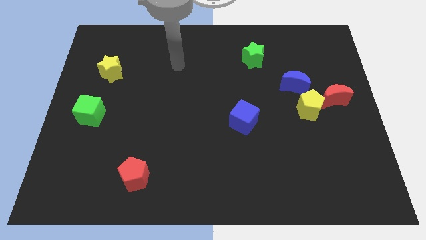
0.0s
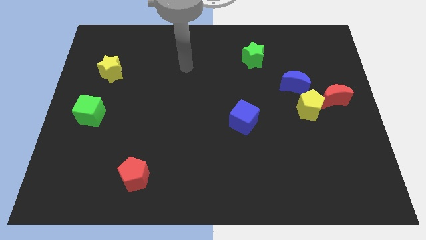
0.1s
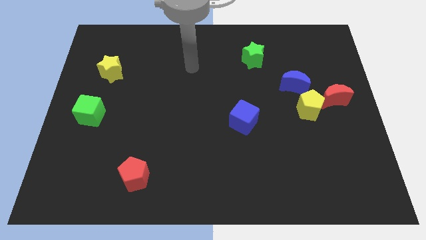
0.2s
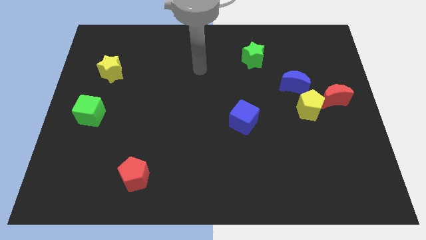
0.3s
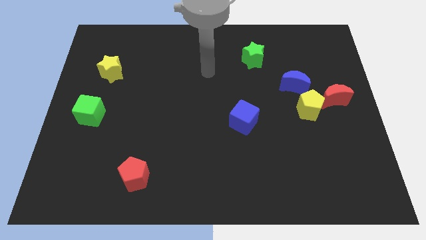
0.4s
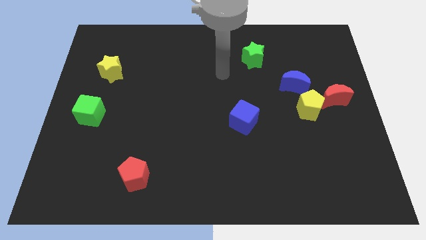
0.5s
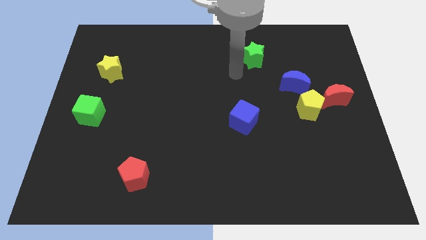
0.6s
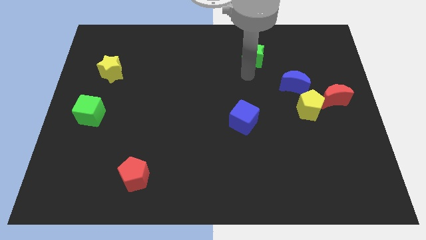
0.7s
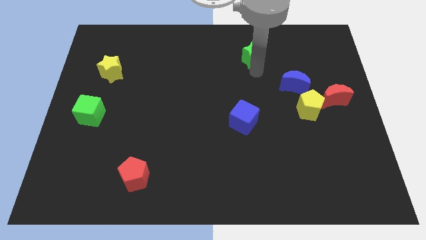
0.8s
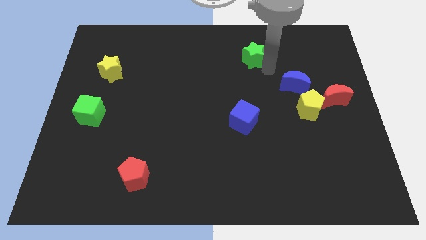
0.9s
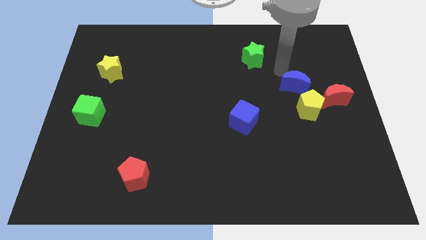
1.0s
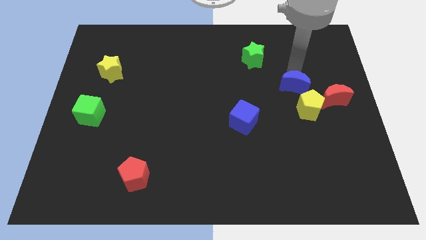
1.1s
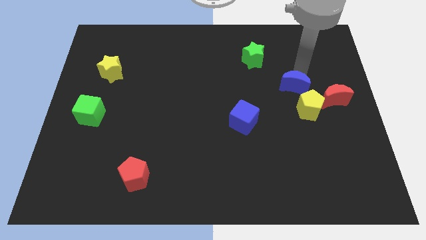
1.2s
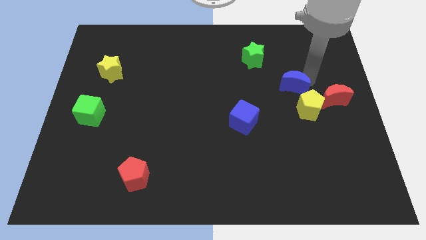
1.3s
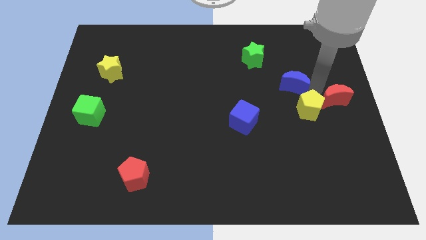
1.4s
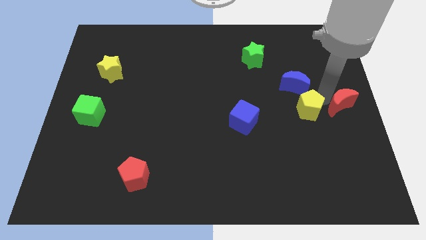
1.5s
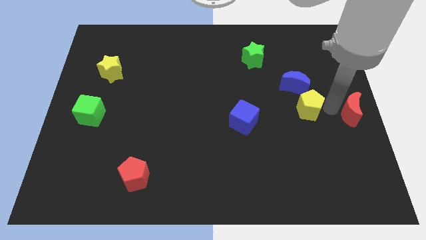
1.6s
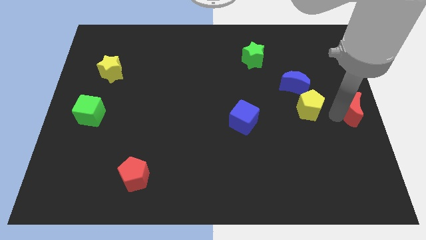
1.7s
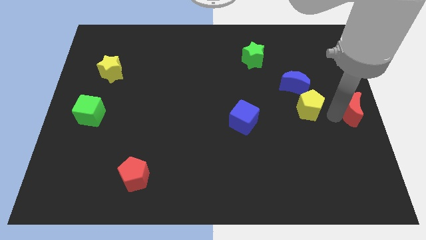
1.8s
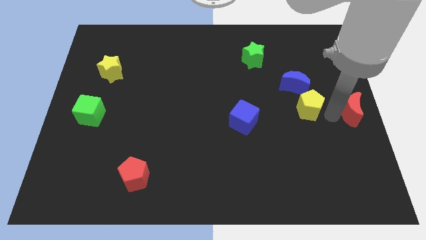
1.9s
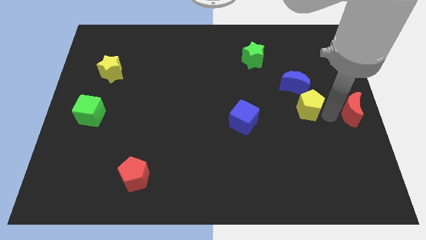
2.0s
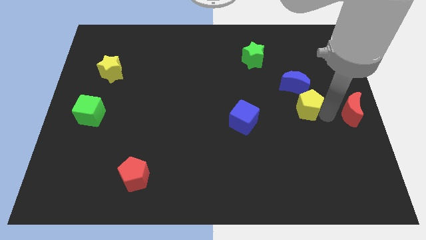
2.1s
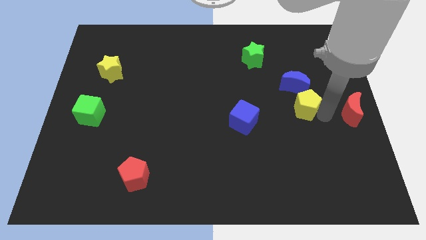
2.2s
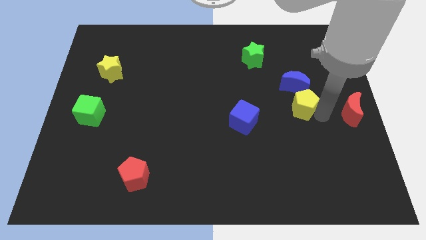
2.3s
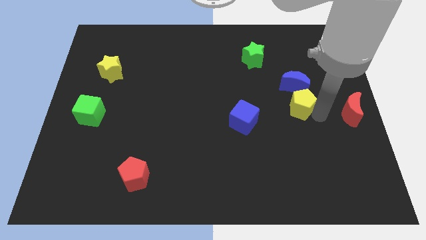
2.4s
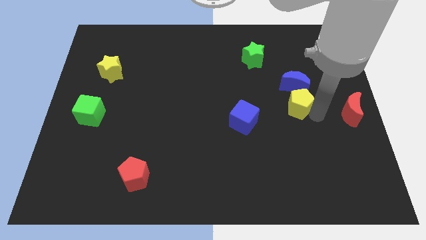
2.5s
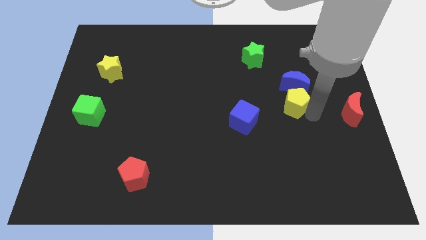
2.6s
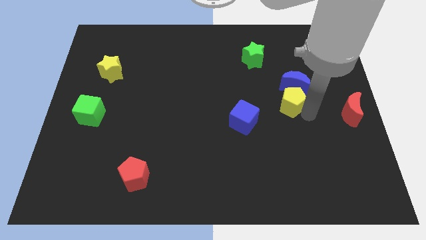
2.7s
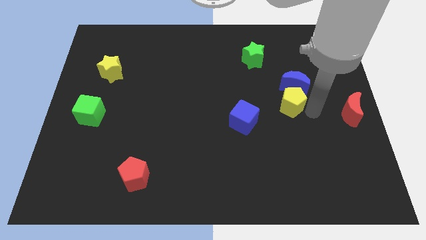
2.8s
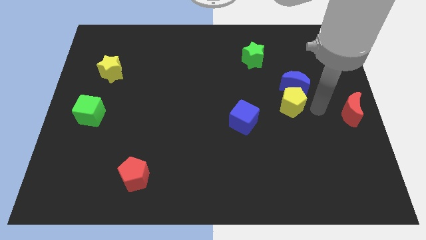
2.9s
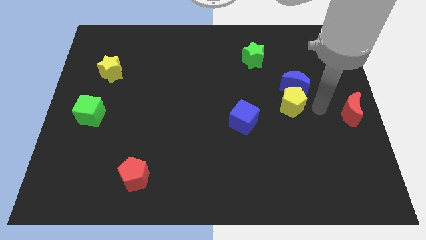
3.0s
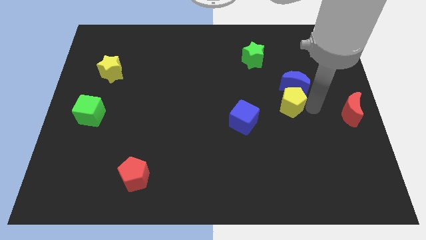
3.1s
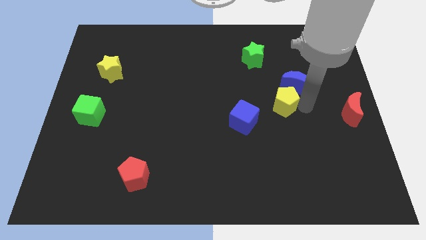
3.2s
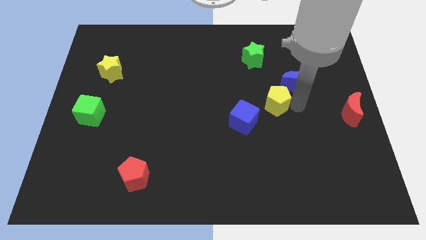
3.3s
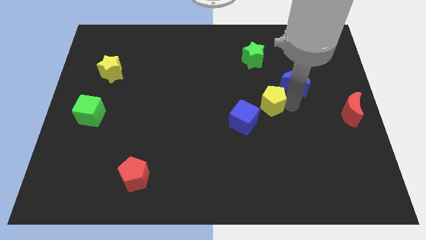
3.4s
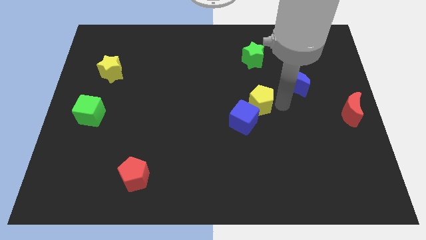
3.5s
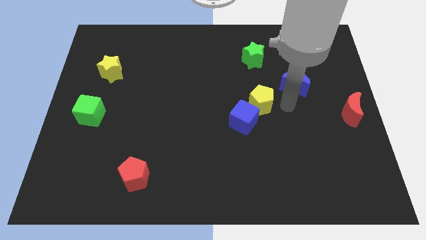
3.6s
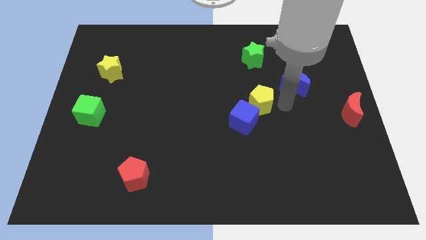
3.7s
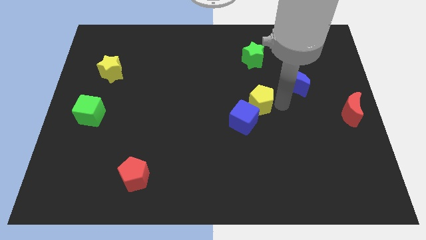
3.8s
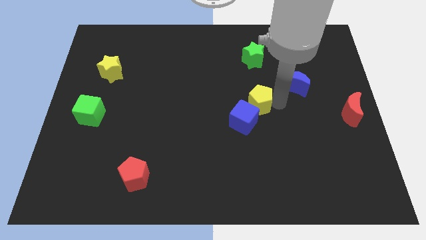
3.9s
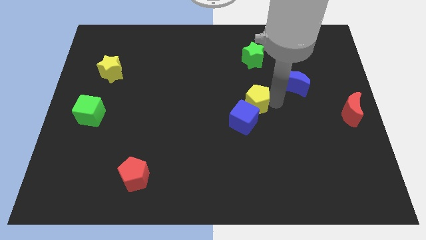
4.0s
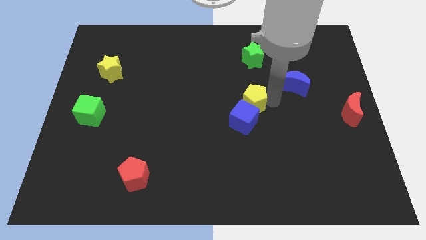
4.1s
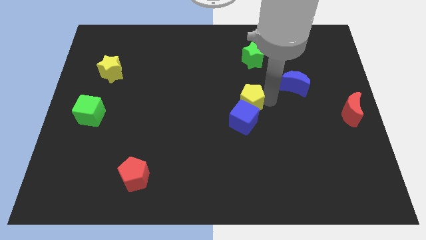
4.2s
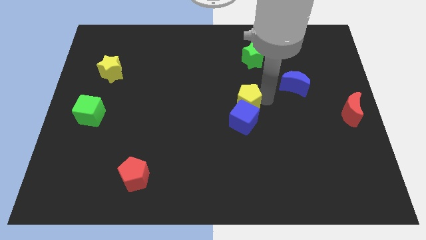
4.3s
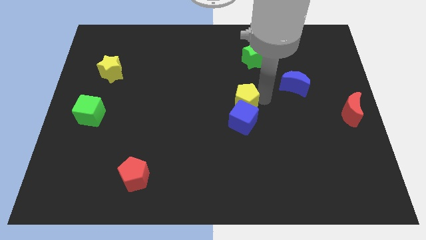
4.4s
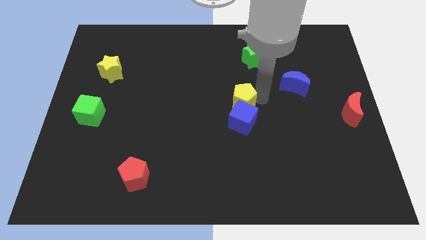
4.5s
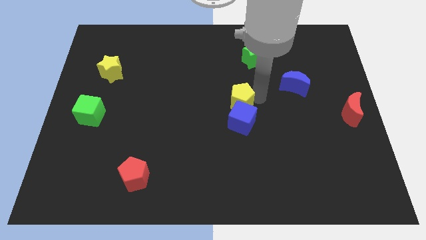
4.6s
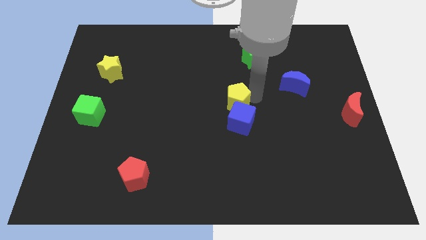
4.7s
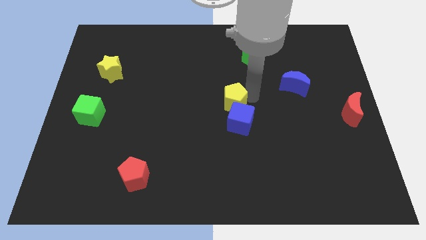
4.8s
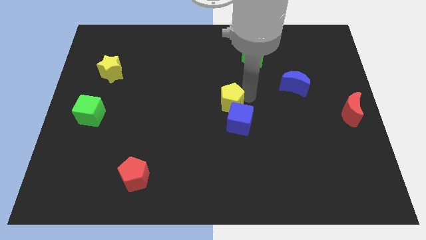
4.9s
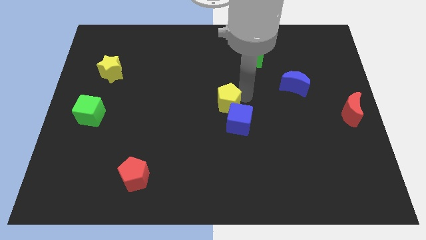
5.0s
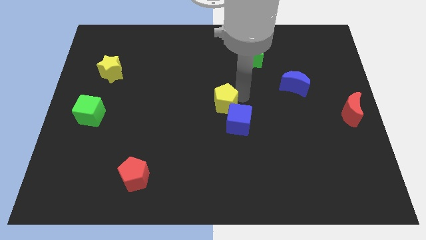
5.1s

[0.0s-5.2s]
push the yellow pentagon left

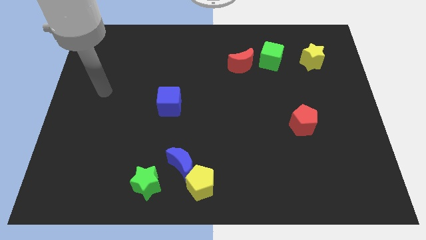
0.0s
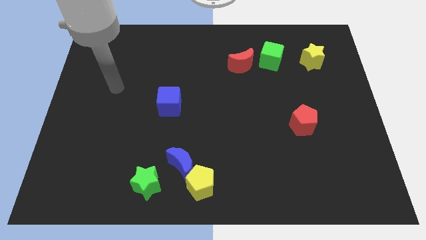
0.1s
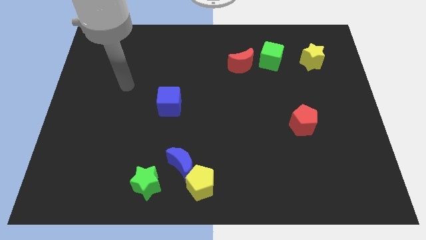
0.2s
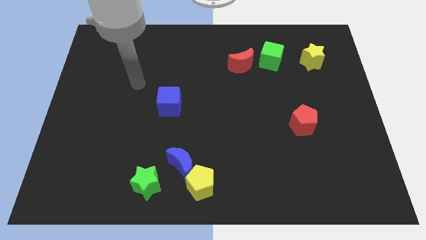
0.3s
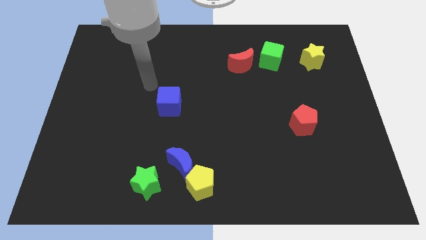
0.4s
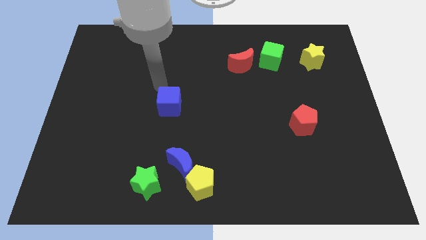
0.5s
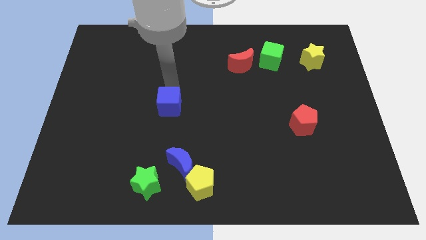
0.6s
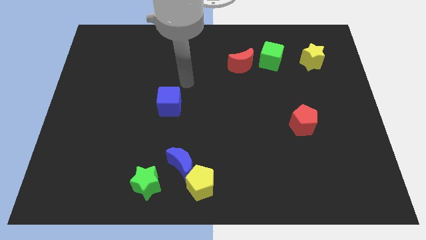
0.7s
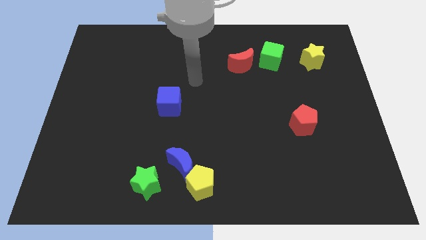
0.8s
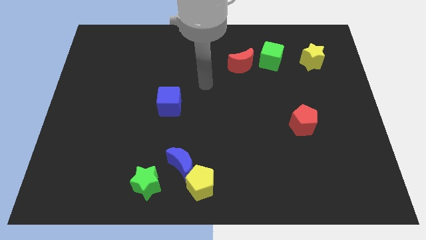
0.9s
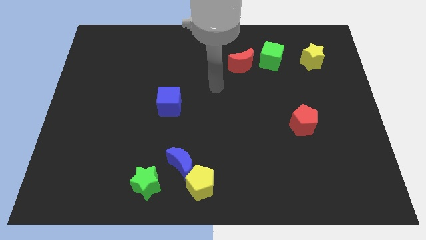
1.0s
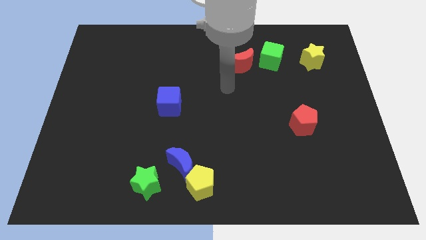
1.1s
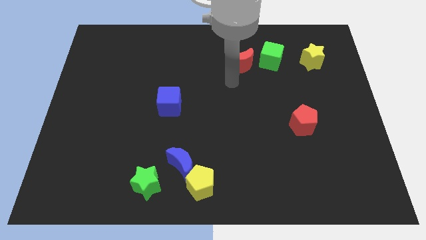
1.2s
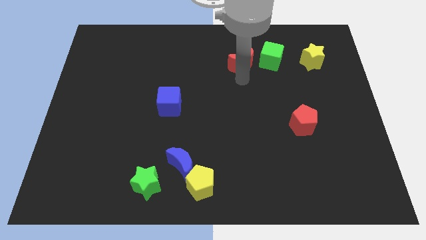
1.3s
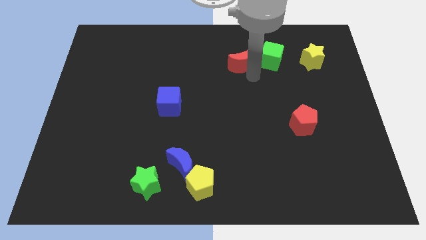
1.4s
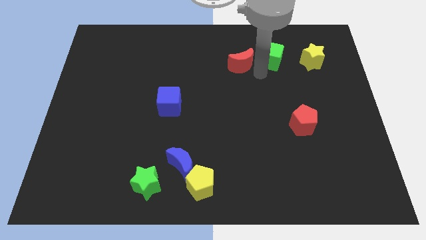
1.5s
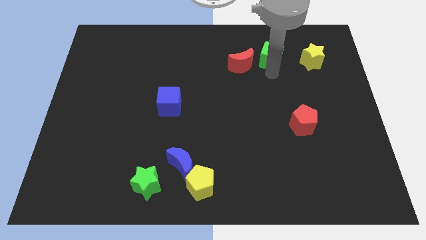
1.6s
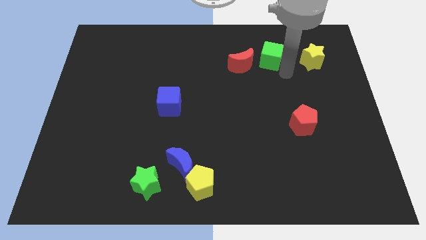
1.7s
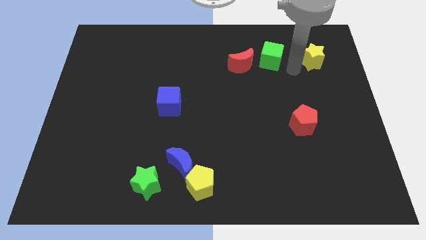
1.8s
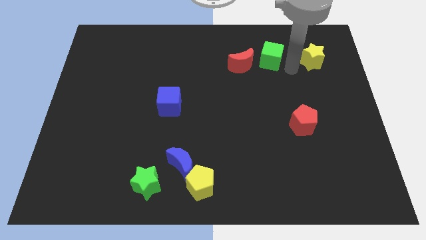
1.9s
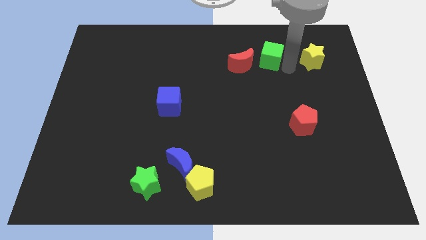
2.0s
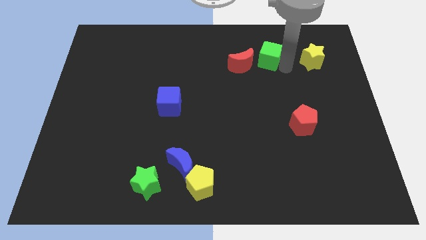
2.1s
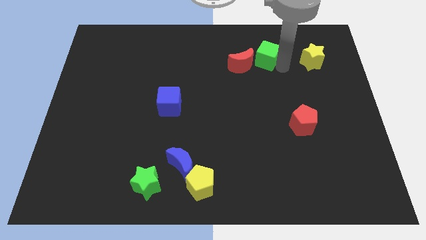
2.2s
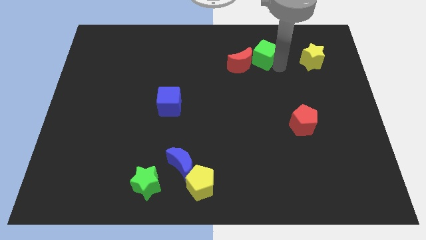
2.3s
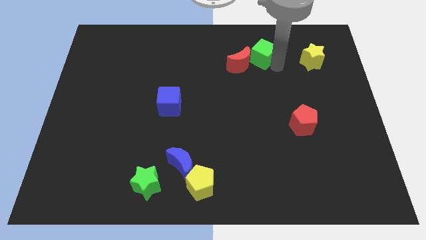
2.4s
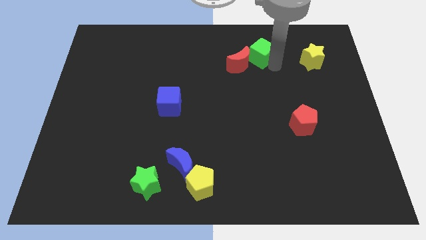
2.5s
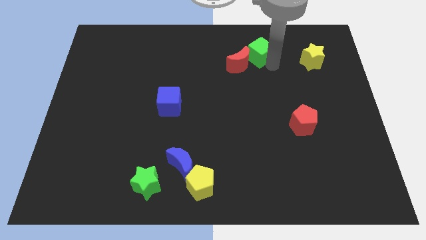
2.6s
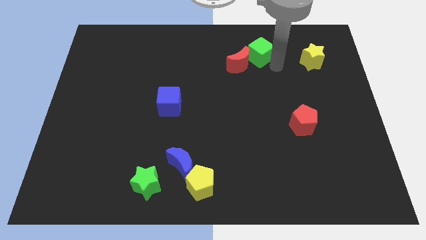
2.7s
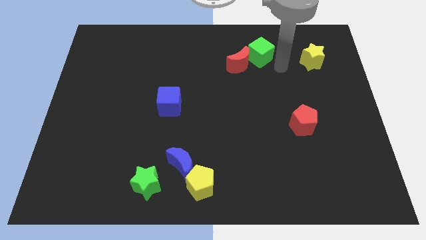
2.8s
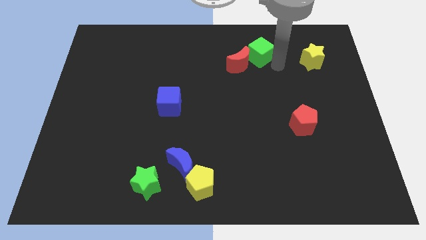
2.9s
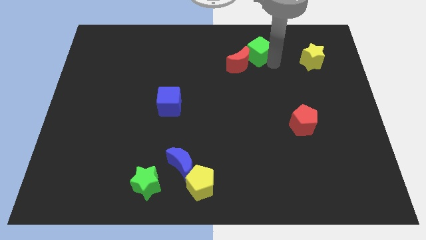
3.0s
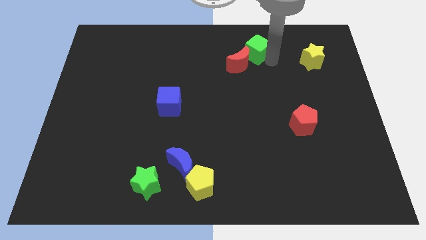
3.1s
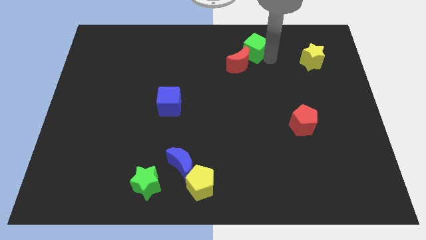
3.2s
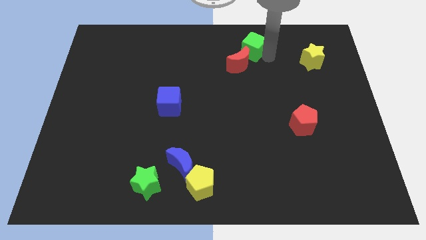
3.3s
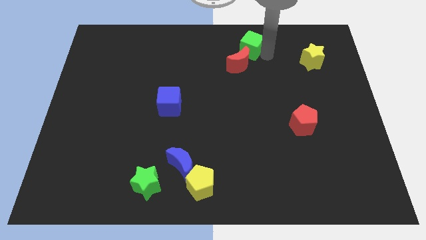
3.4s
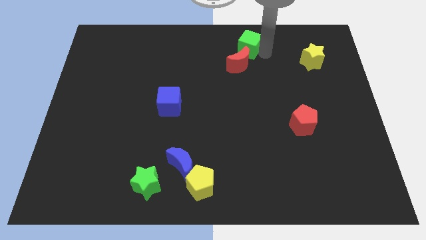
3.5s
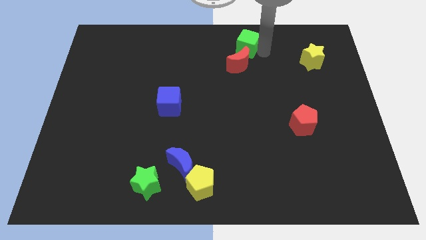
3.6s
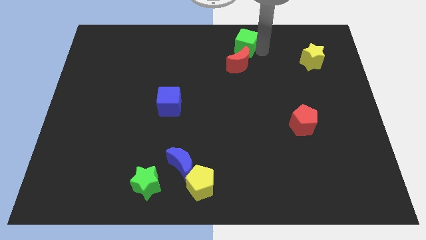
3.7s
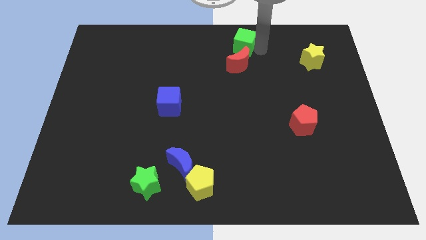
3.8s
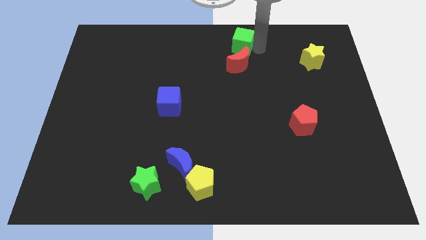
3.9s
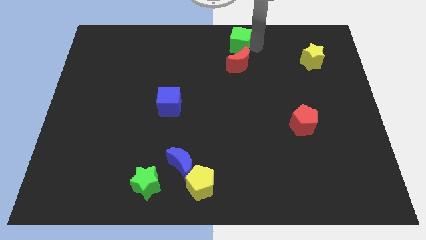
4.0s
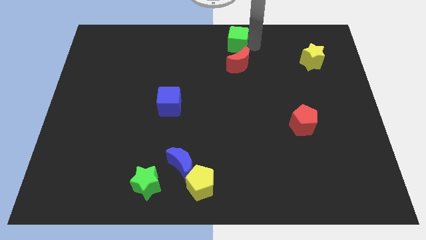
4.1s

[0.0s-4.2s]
push the green cube left a little
